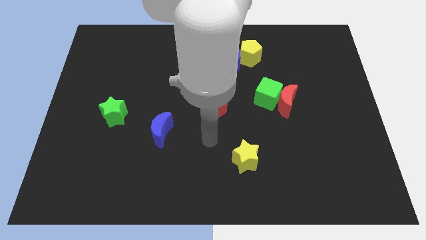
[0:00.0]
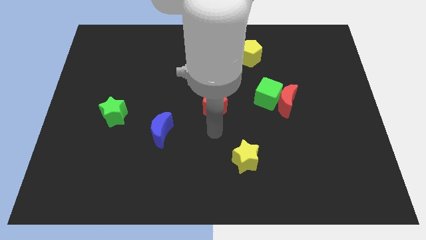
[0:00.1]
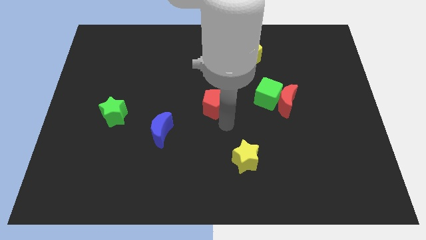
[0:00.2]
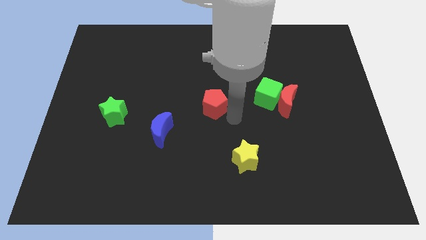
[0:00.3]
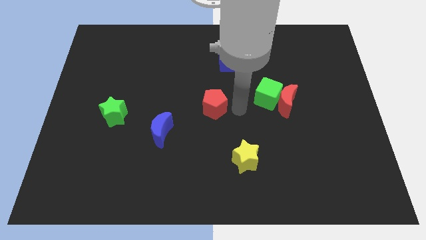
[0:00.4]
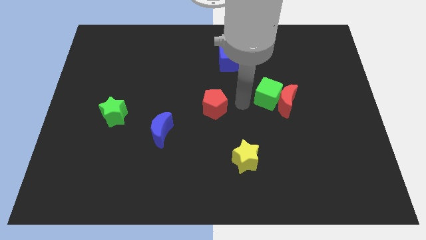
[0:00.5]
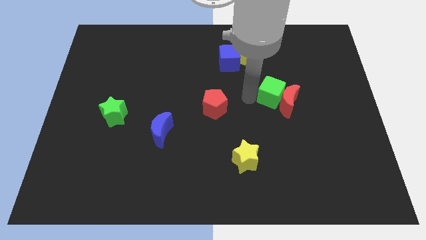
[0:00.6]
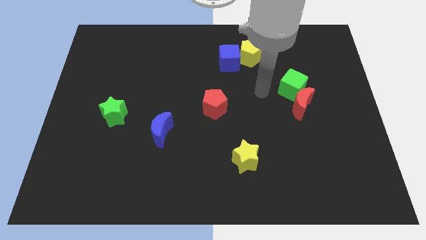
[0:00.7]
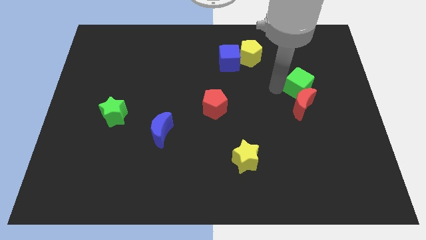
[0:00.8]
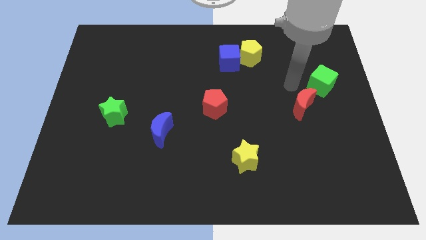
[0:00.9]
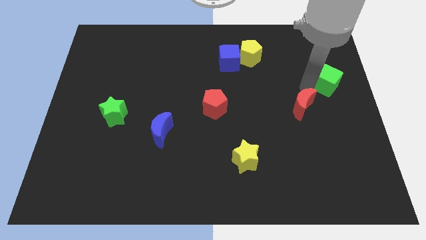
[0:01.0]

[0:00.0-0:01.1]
separate the red moon from the green cube

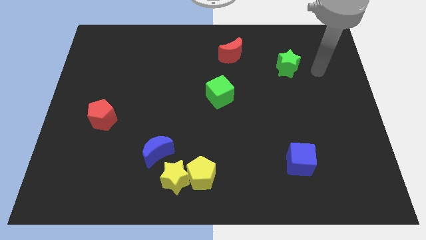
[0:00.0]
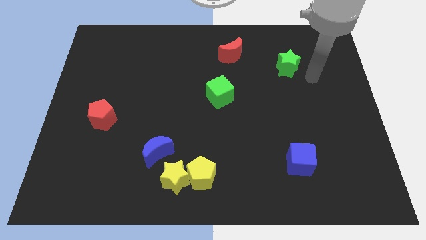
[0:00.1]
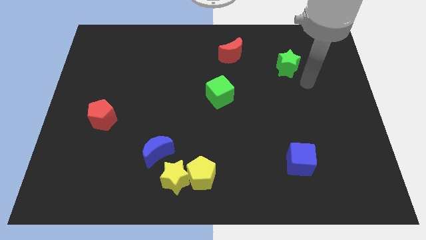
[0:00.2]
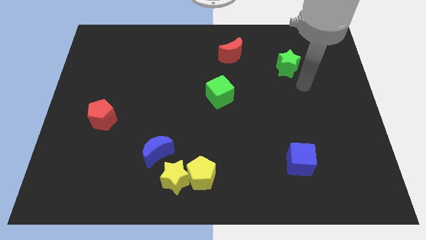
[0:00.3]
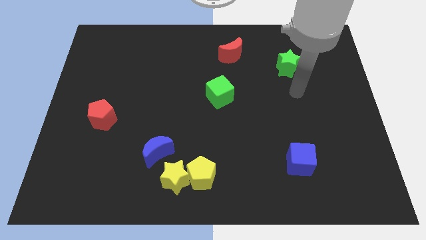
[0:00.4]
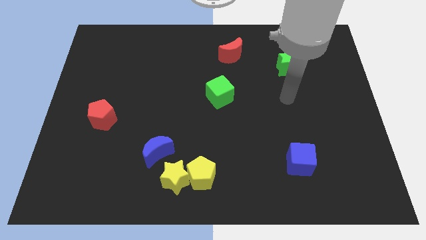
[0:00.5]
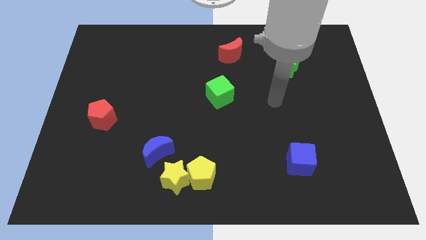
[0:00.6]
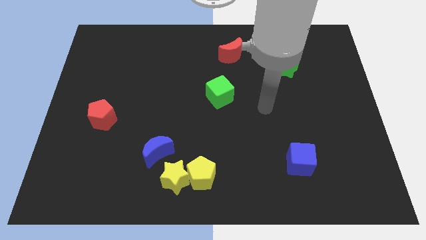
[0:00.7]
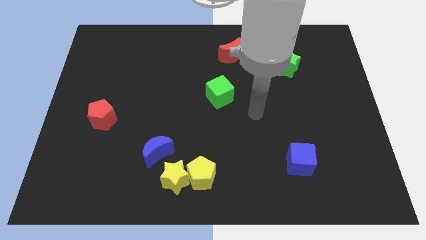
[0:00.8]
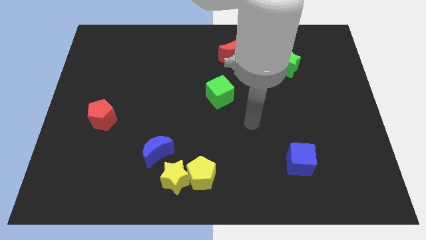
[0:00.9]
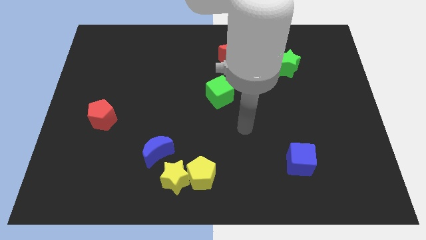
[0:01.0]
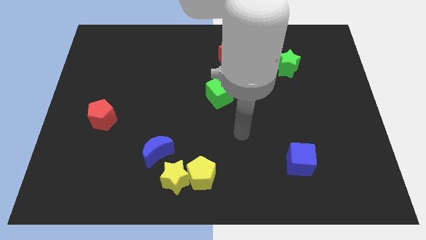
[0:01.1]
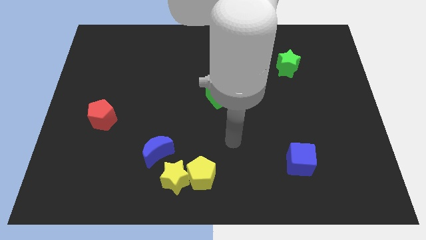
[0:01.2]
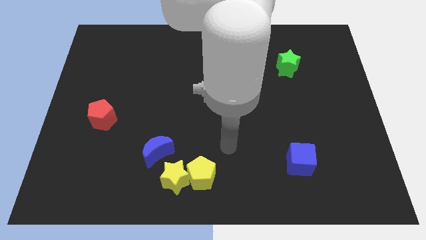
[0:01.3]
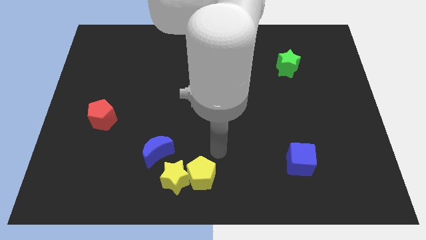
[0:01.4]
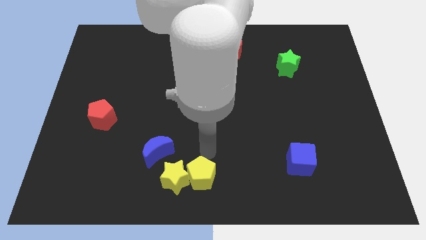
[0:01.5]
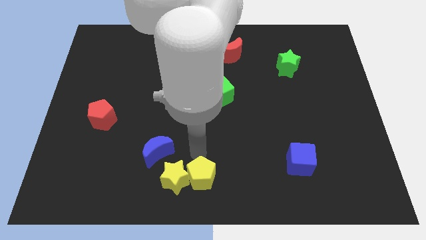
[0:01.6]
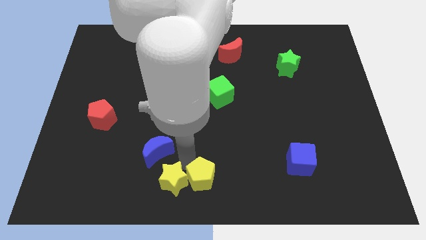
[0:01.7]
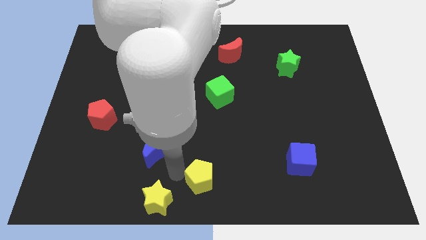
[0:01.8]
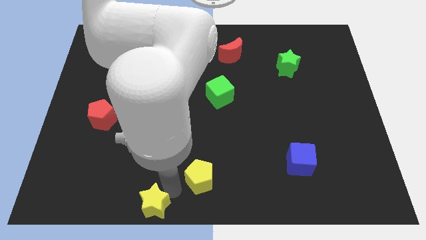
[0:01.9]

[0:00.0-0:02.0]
pull the yellow pentagon apart from the yellow star

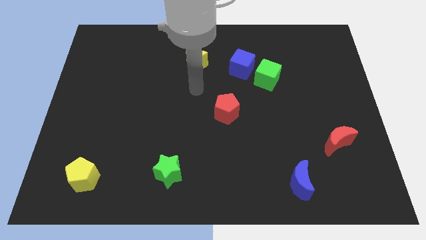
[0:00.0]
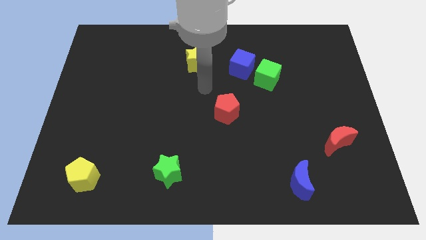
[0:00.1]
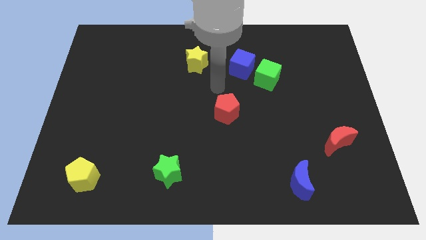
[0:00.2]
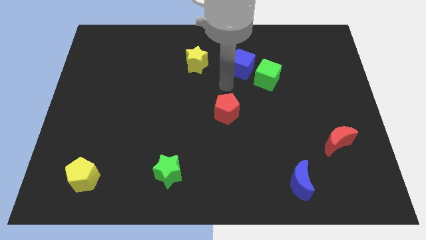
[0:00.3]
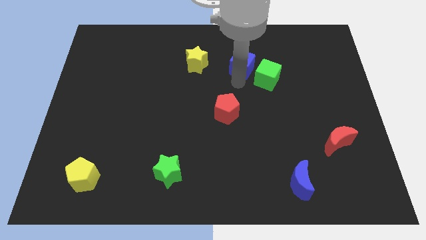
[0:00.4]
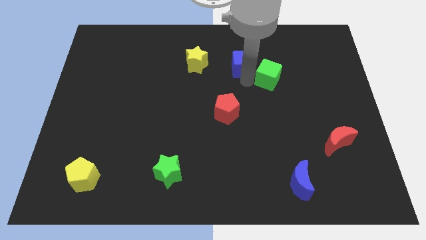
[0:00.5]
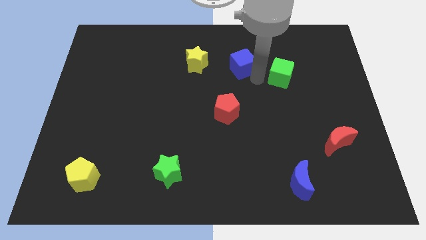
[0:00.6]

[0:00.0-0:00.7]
move the blue cube away from the green cube

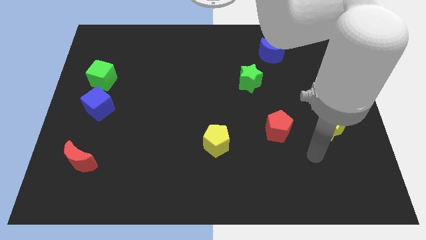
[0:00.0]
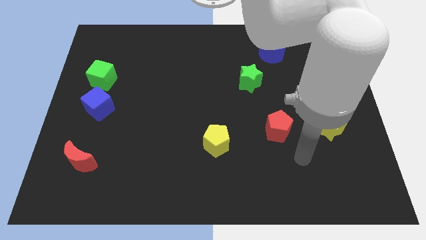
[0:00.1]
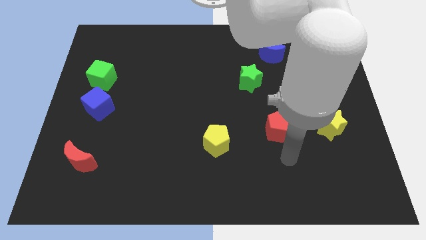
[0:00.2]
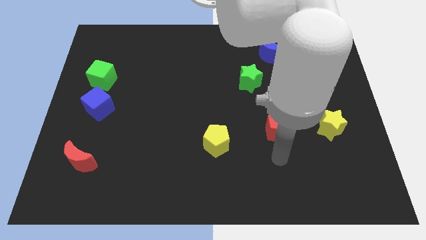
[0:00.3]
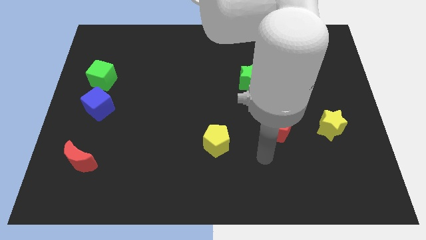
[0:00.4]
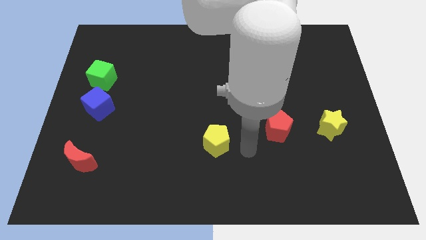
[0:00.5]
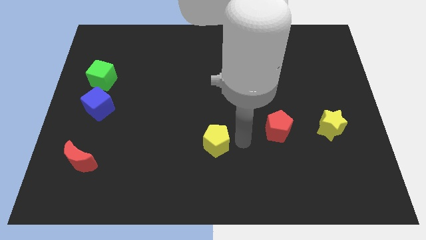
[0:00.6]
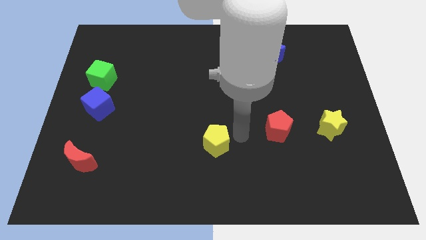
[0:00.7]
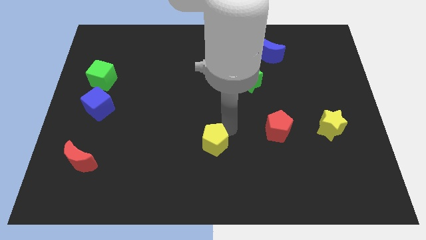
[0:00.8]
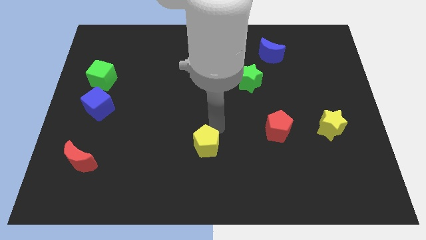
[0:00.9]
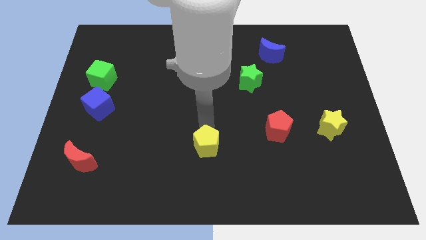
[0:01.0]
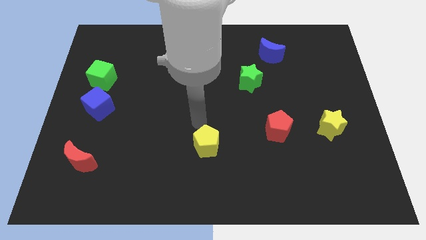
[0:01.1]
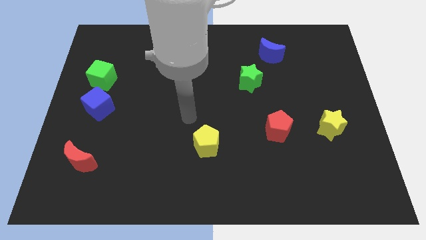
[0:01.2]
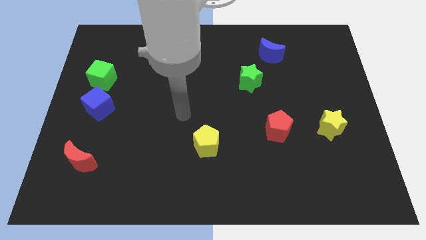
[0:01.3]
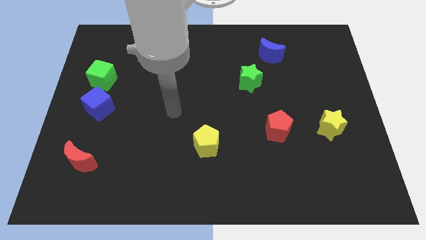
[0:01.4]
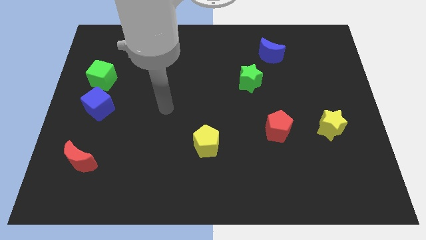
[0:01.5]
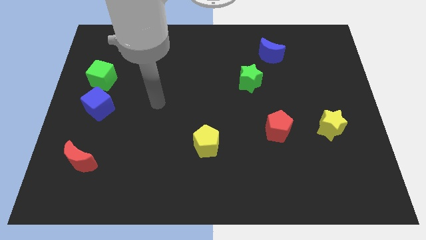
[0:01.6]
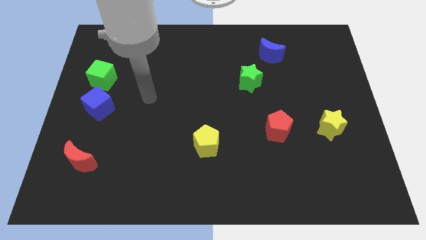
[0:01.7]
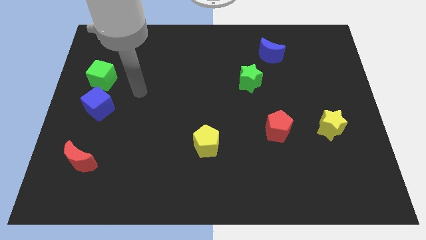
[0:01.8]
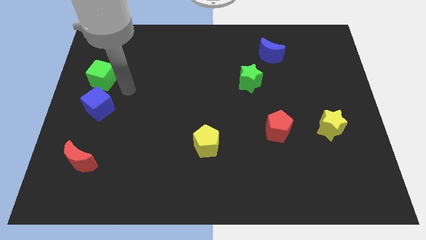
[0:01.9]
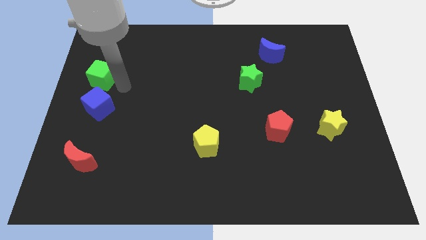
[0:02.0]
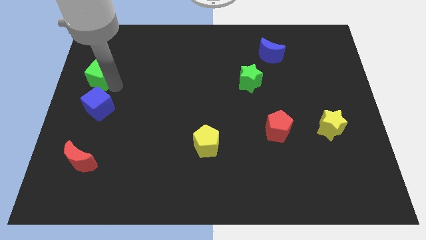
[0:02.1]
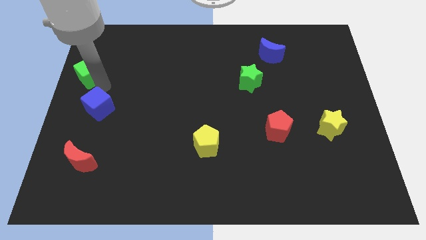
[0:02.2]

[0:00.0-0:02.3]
separate the blue cube from the green cube

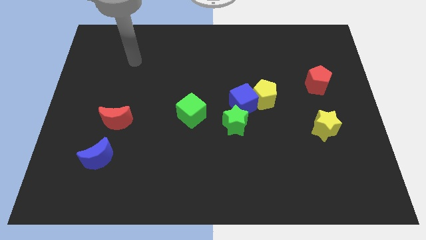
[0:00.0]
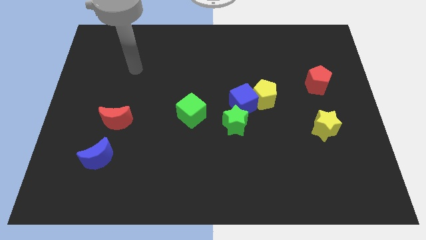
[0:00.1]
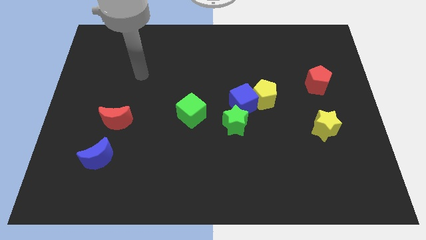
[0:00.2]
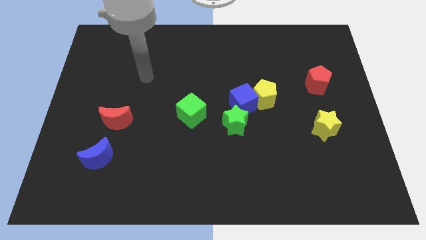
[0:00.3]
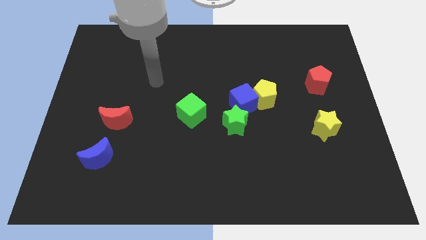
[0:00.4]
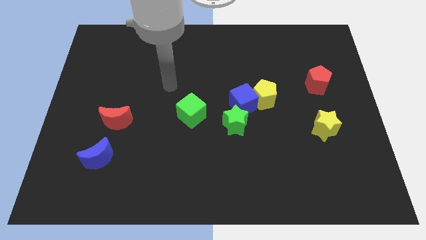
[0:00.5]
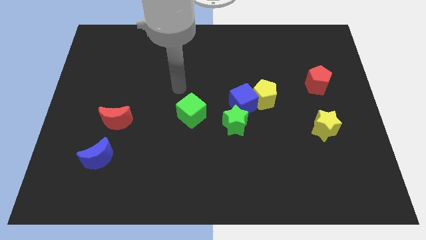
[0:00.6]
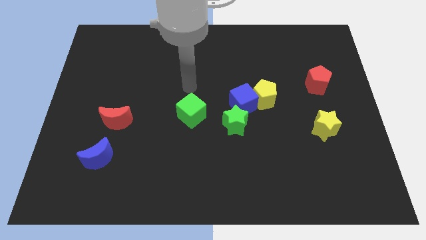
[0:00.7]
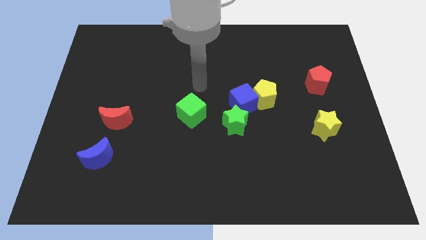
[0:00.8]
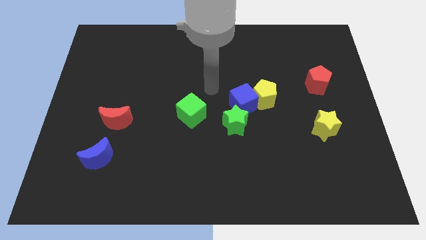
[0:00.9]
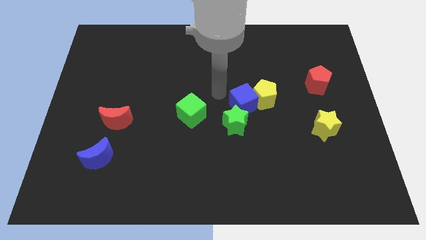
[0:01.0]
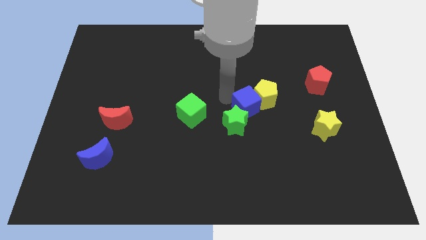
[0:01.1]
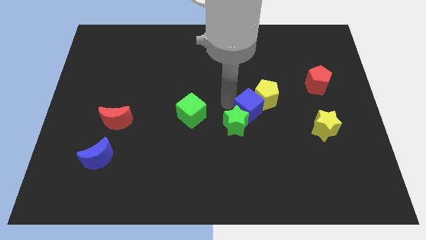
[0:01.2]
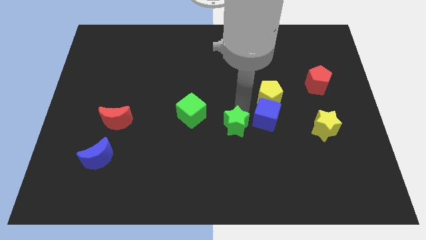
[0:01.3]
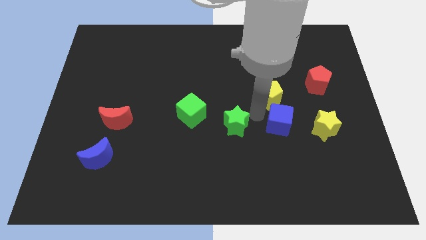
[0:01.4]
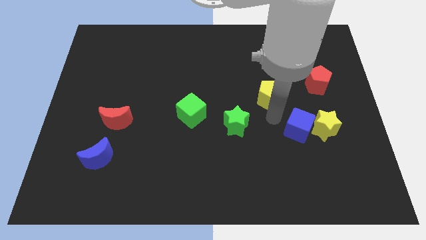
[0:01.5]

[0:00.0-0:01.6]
separate the yellow pentagon from the blue cube

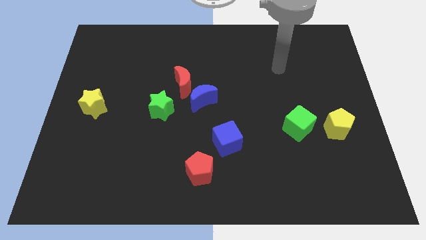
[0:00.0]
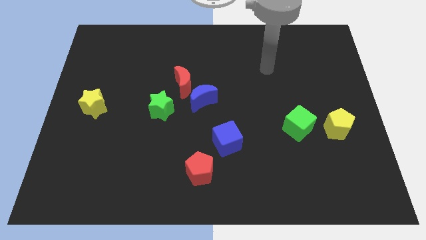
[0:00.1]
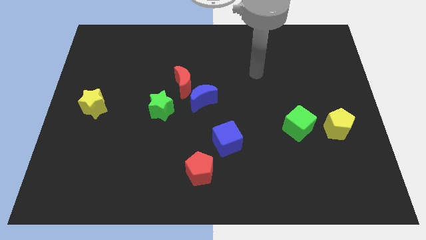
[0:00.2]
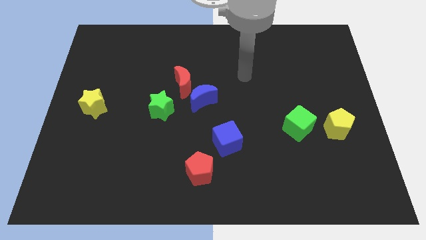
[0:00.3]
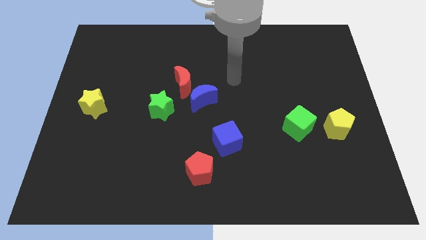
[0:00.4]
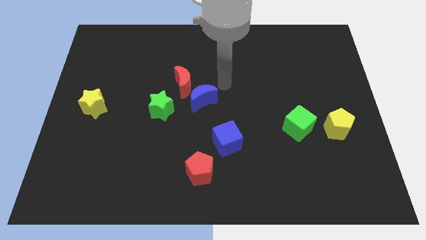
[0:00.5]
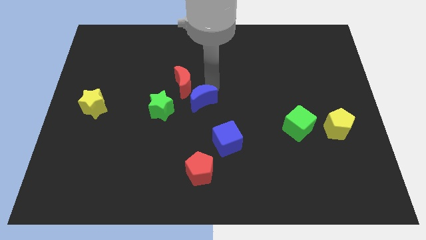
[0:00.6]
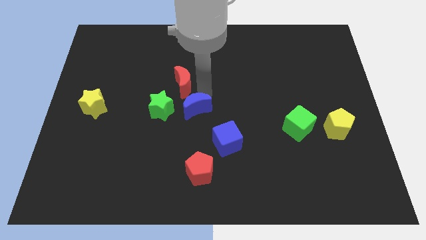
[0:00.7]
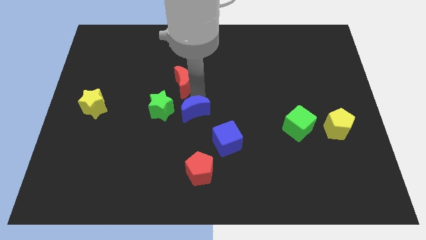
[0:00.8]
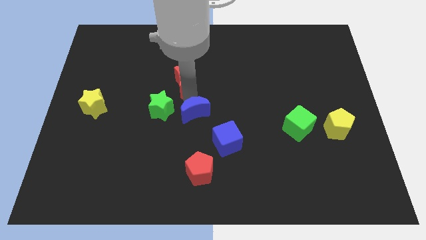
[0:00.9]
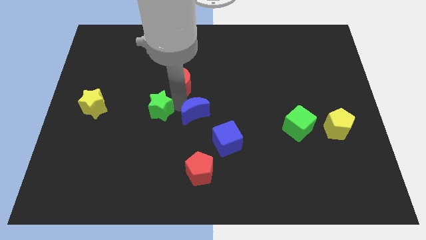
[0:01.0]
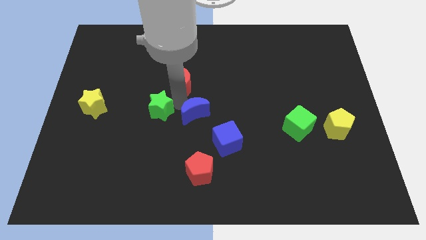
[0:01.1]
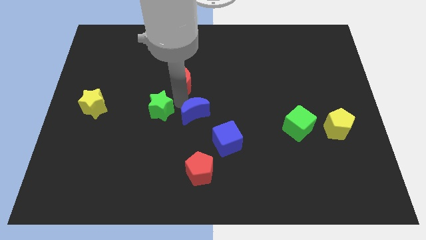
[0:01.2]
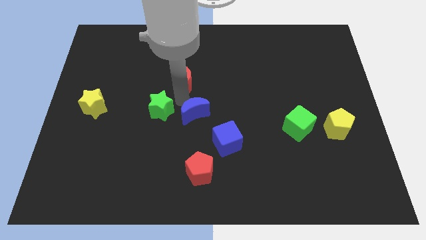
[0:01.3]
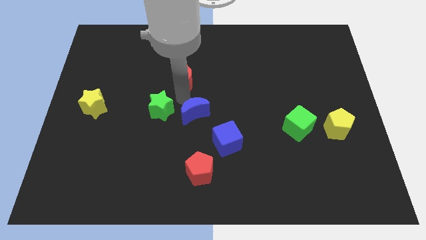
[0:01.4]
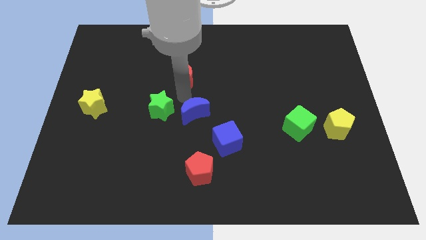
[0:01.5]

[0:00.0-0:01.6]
separate the red moon from the blue moon and green star
